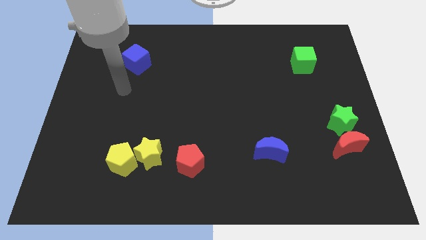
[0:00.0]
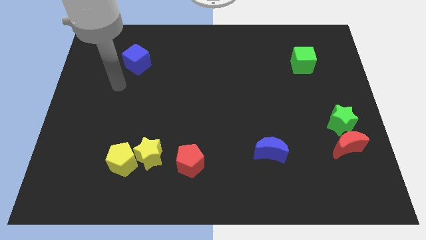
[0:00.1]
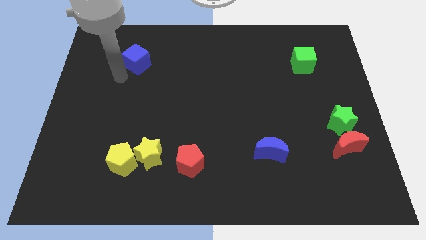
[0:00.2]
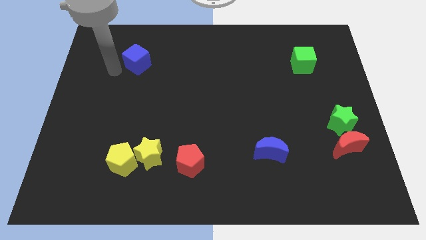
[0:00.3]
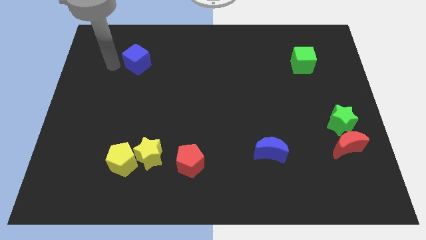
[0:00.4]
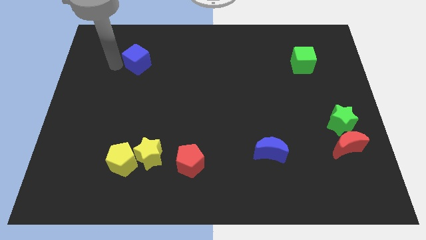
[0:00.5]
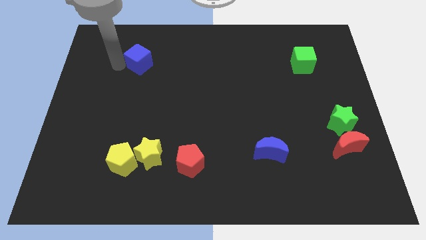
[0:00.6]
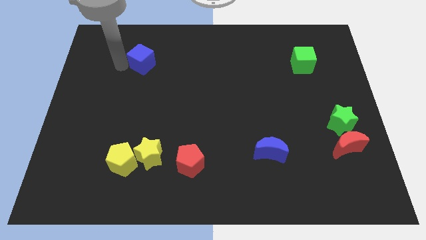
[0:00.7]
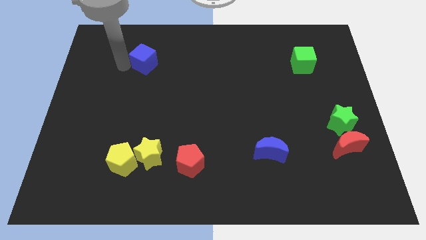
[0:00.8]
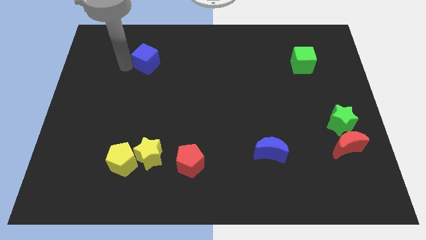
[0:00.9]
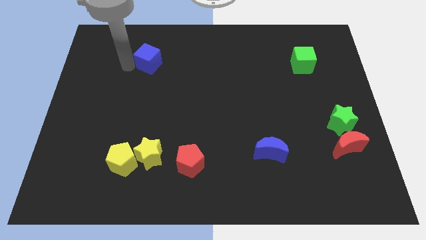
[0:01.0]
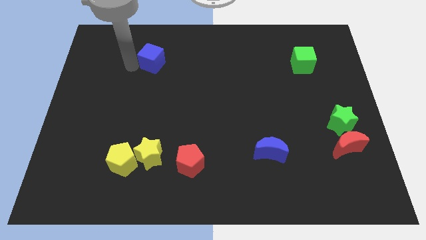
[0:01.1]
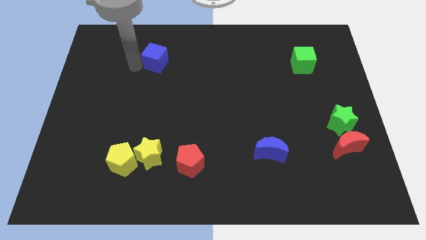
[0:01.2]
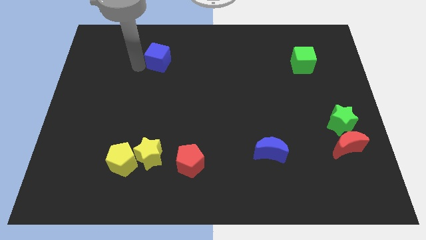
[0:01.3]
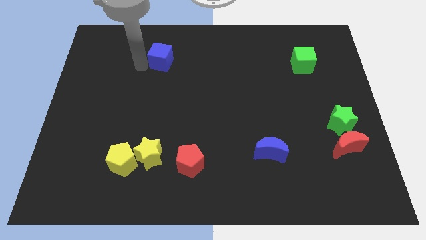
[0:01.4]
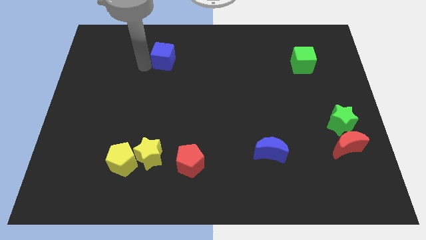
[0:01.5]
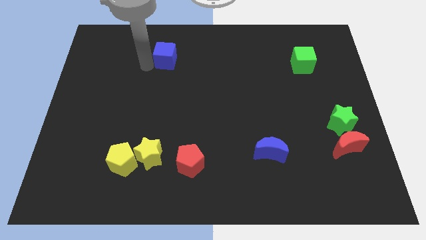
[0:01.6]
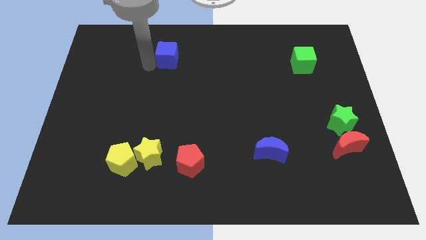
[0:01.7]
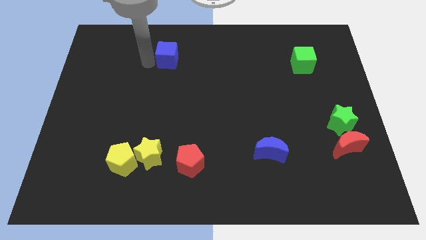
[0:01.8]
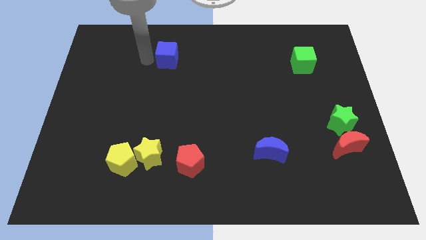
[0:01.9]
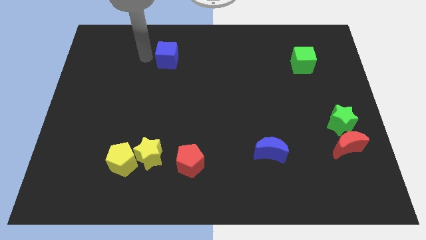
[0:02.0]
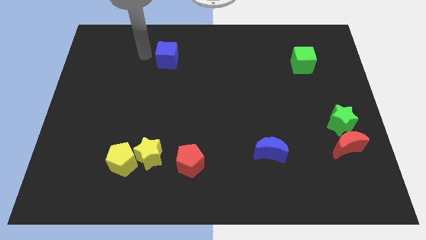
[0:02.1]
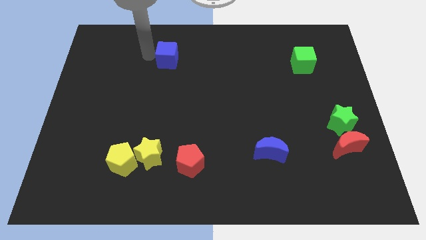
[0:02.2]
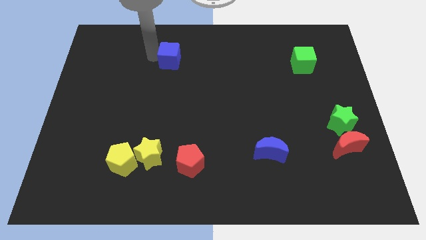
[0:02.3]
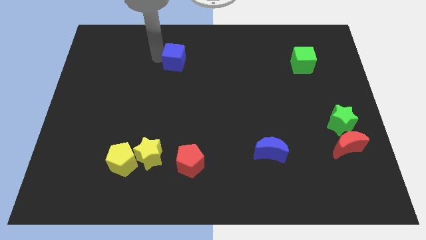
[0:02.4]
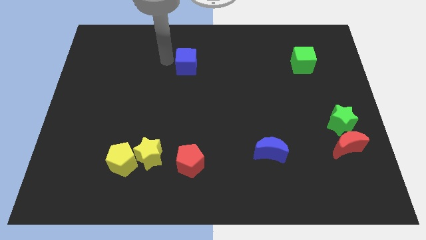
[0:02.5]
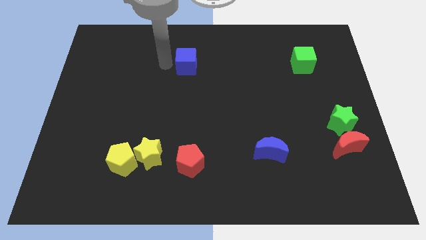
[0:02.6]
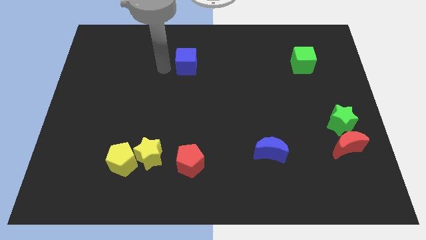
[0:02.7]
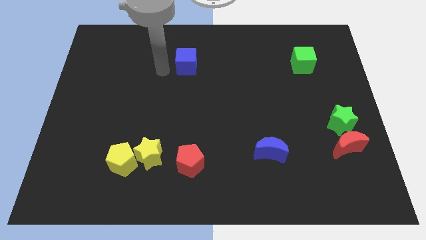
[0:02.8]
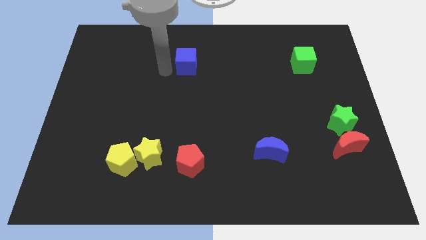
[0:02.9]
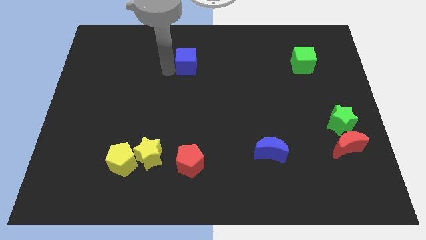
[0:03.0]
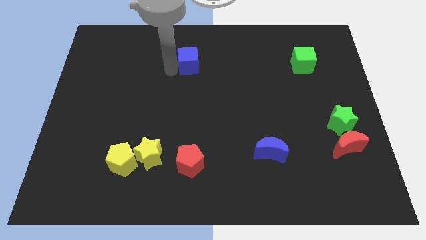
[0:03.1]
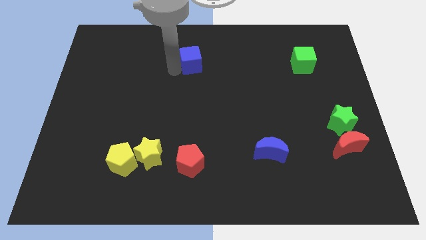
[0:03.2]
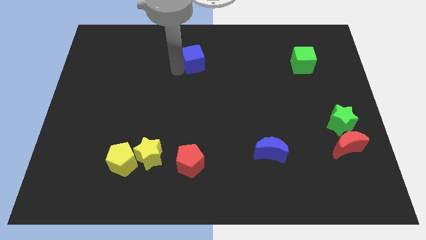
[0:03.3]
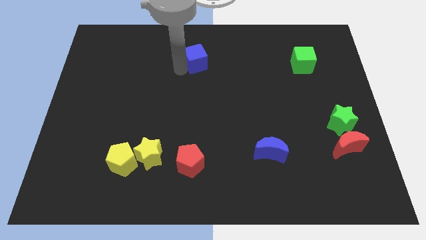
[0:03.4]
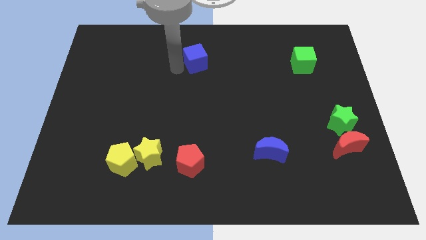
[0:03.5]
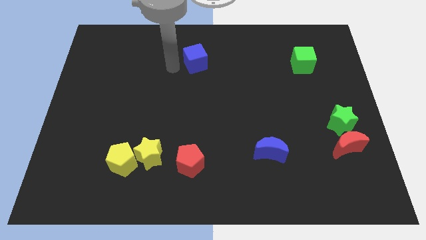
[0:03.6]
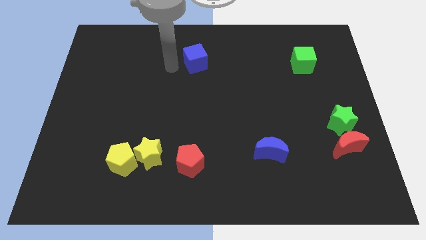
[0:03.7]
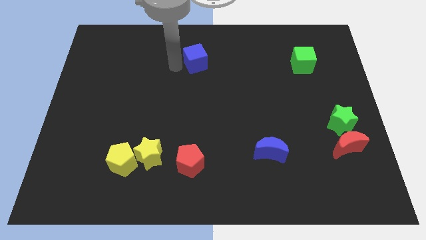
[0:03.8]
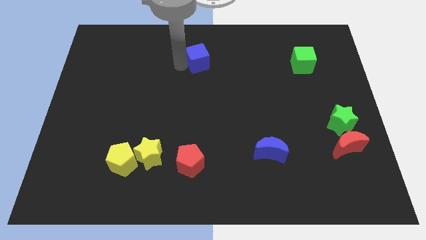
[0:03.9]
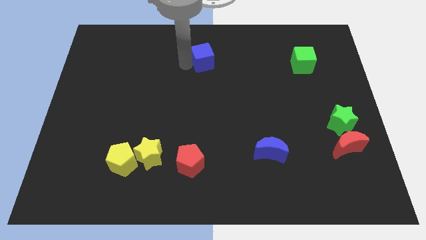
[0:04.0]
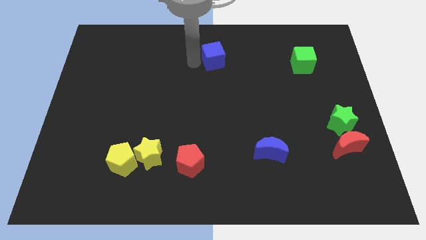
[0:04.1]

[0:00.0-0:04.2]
move the blue cube to the right

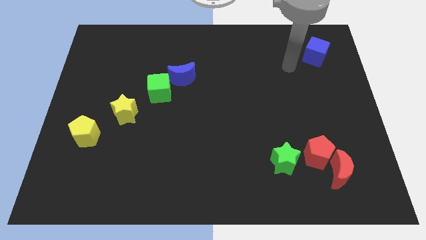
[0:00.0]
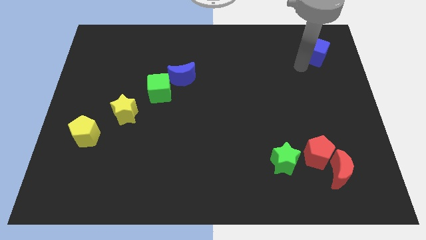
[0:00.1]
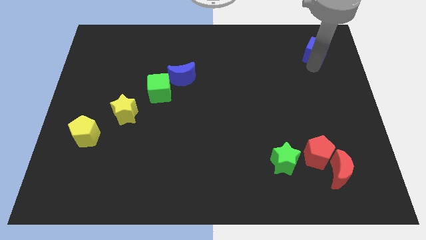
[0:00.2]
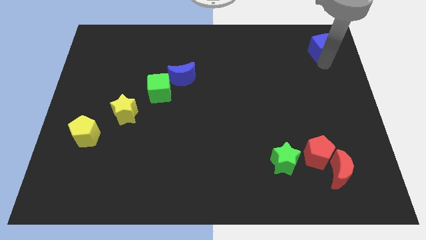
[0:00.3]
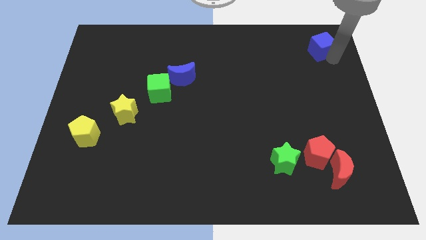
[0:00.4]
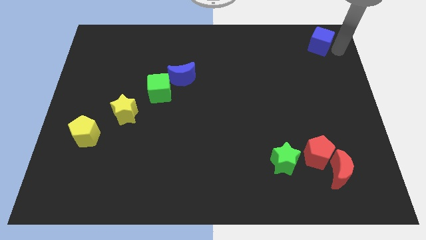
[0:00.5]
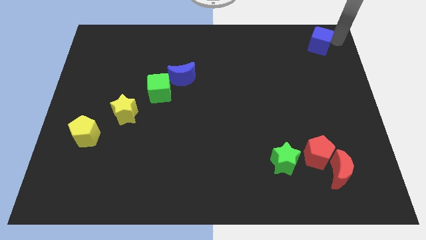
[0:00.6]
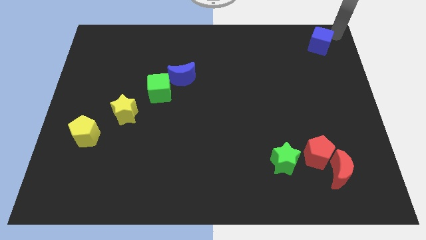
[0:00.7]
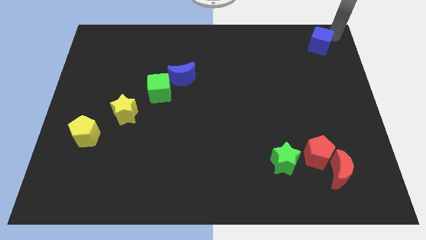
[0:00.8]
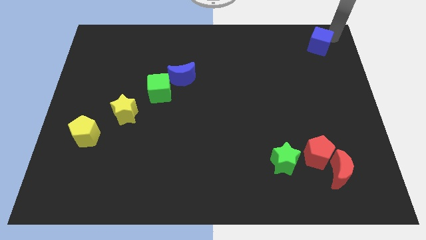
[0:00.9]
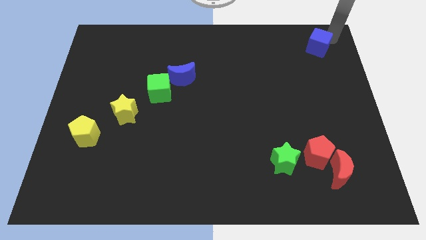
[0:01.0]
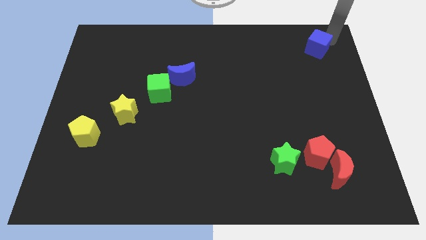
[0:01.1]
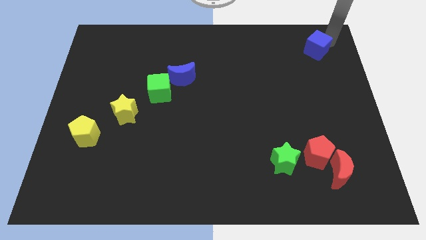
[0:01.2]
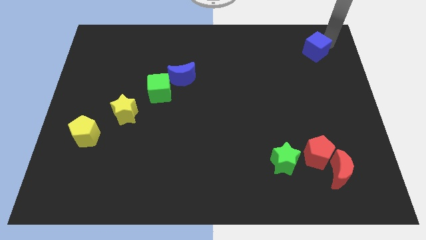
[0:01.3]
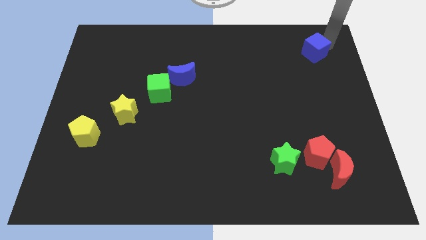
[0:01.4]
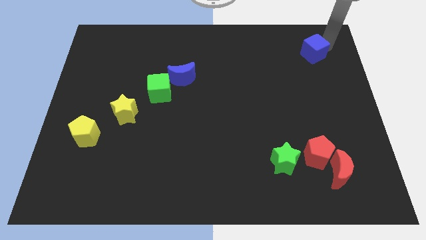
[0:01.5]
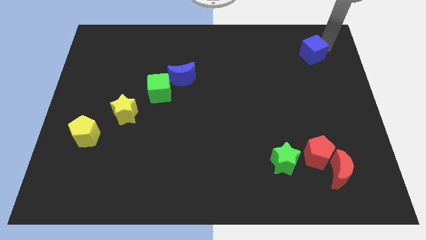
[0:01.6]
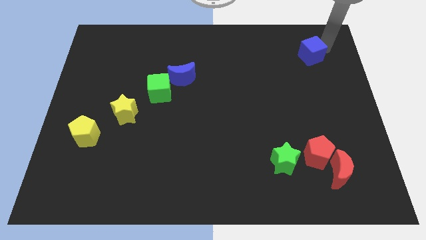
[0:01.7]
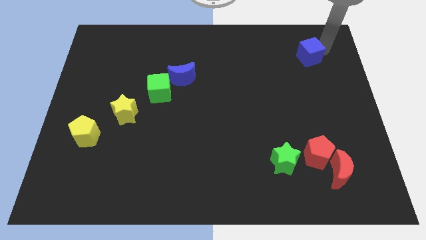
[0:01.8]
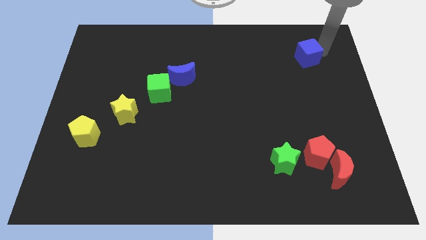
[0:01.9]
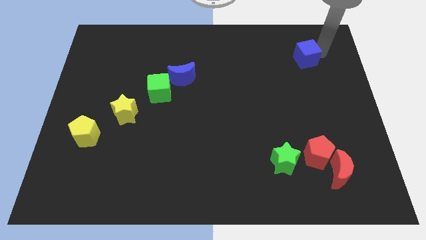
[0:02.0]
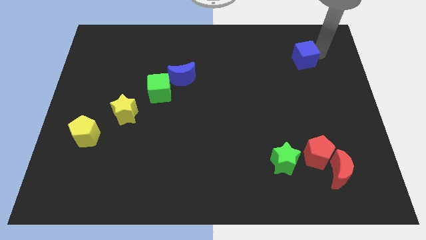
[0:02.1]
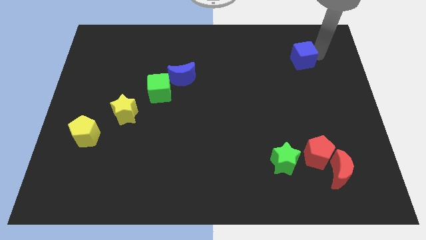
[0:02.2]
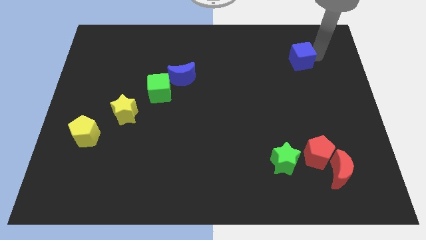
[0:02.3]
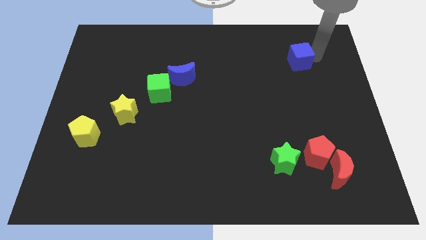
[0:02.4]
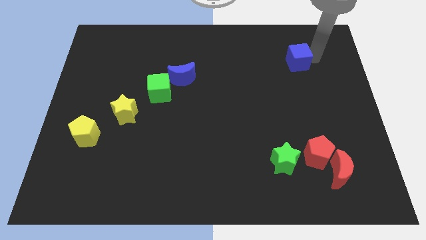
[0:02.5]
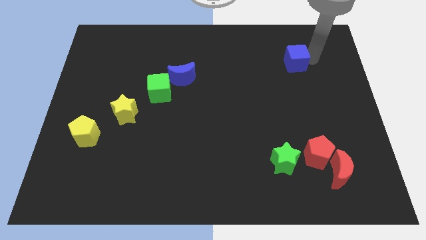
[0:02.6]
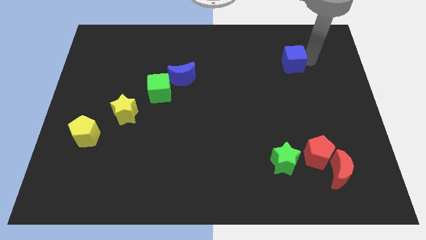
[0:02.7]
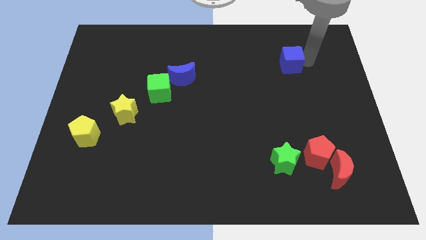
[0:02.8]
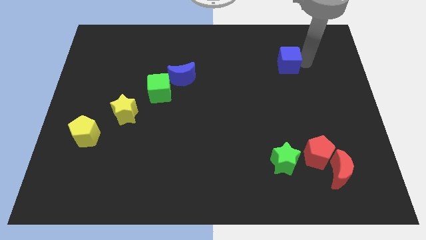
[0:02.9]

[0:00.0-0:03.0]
slide the blue cube somewhat left

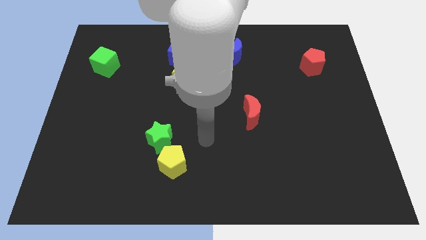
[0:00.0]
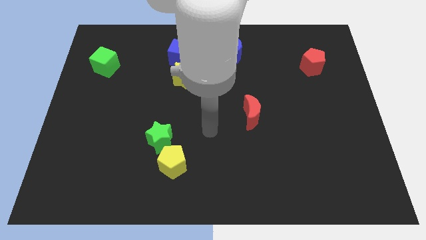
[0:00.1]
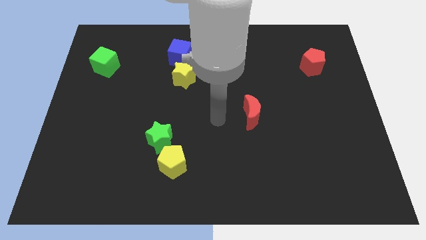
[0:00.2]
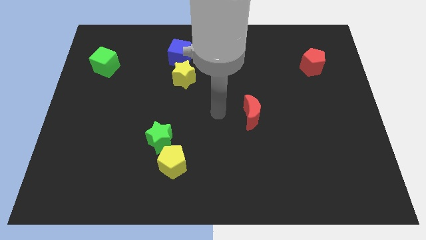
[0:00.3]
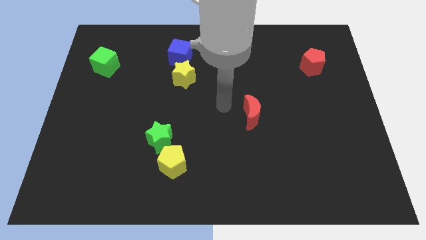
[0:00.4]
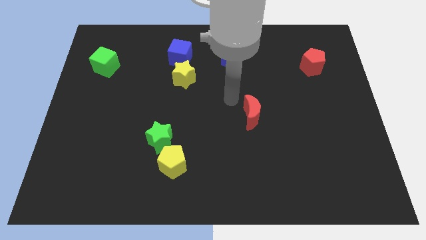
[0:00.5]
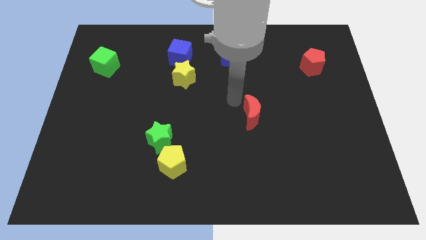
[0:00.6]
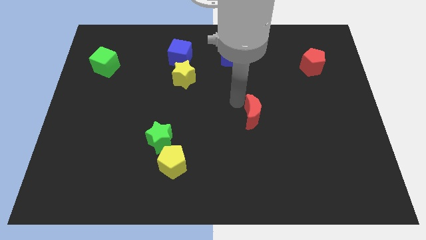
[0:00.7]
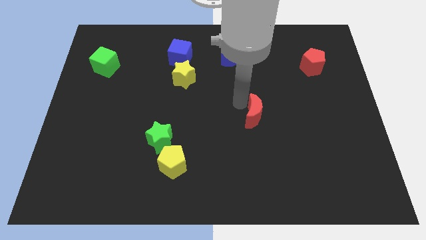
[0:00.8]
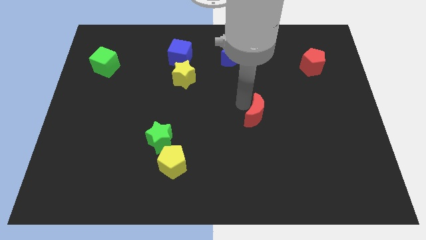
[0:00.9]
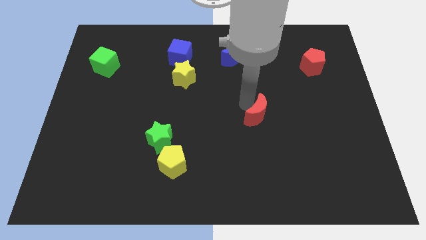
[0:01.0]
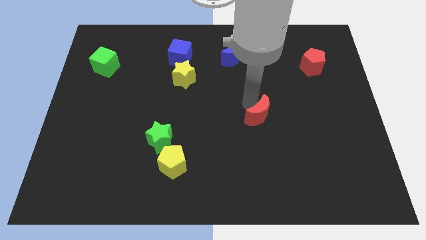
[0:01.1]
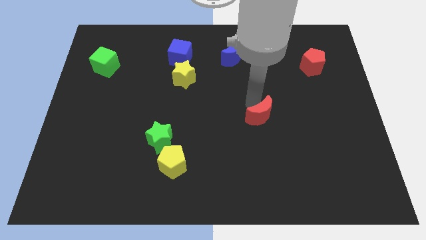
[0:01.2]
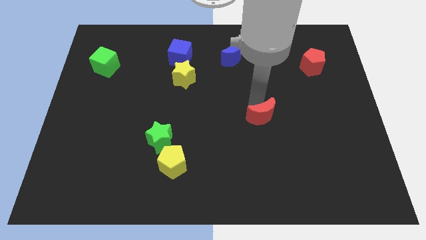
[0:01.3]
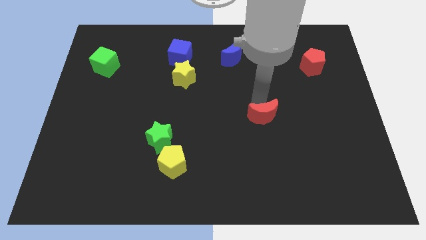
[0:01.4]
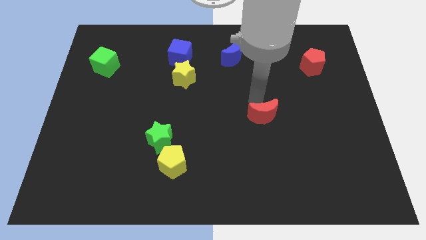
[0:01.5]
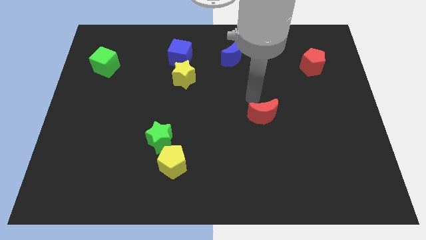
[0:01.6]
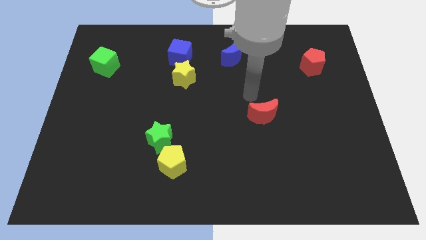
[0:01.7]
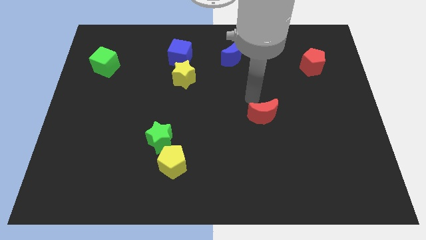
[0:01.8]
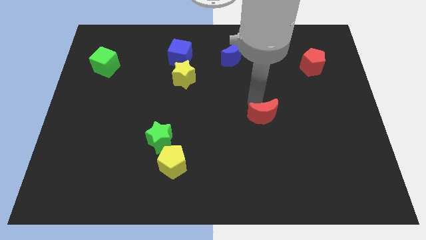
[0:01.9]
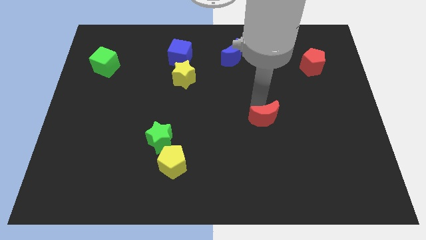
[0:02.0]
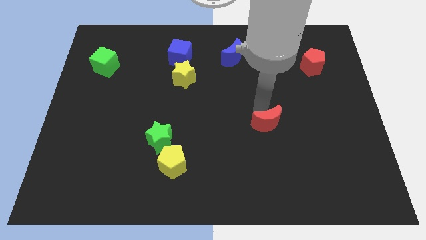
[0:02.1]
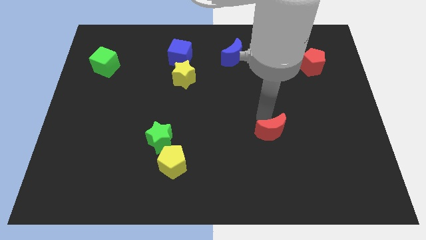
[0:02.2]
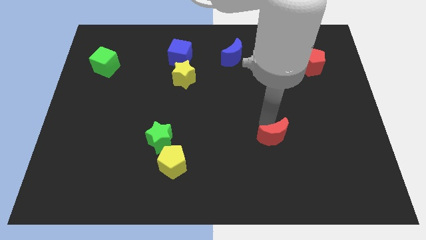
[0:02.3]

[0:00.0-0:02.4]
move the red moon downwards and then right a little
